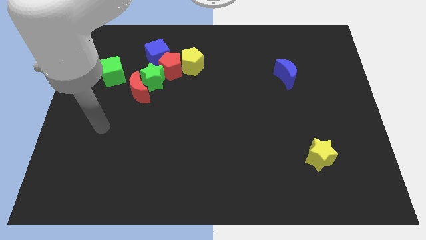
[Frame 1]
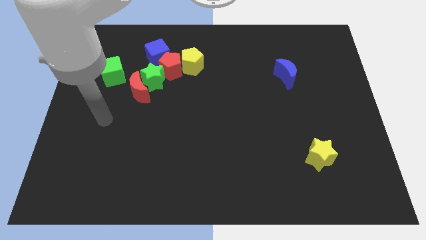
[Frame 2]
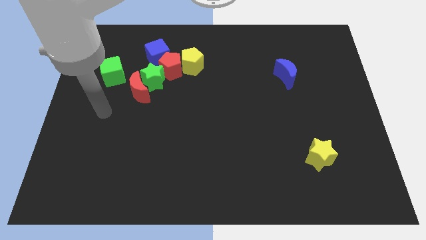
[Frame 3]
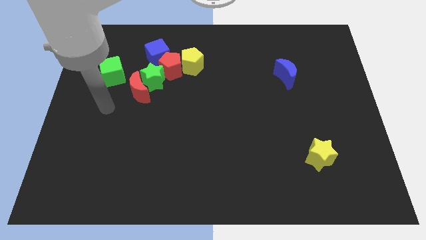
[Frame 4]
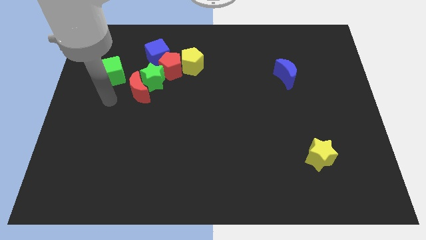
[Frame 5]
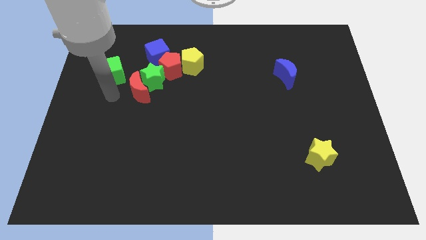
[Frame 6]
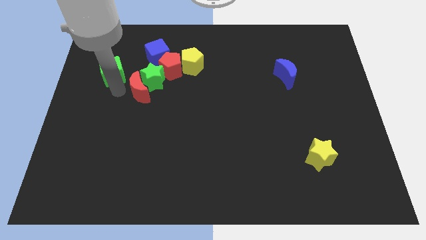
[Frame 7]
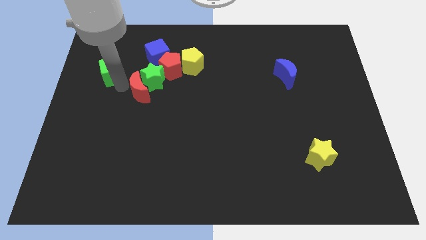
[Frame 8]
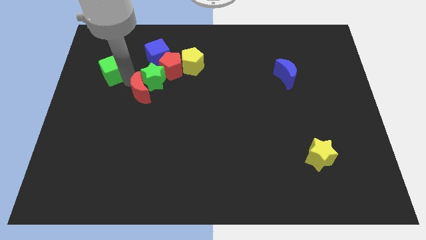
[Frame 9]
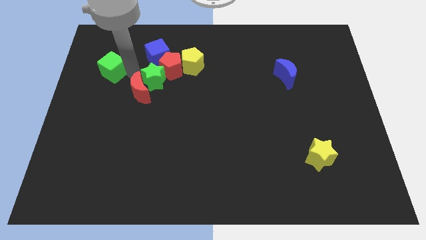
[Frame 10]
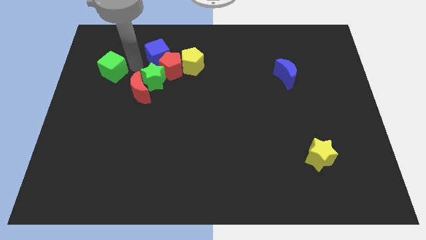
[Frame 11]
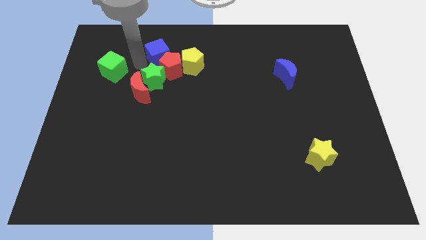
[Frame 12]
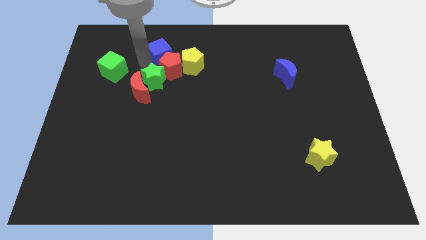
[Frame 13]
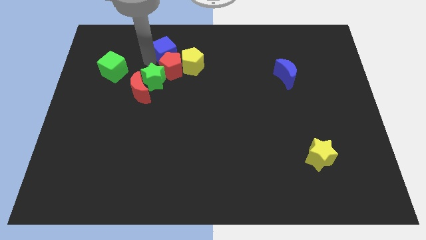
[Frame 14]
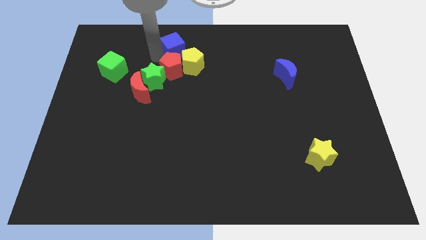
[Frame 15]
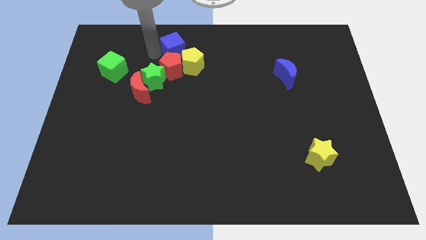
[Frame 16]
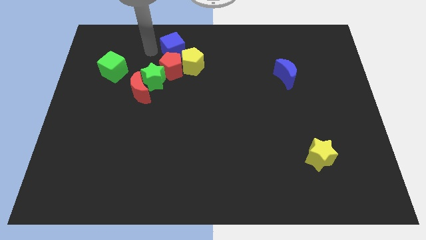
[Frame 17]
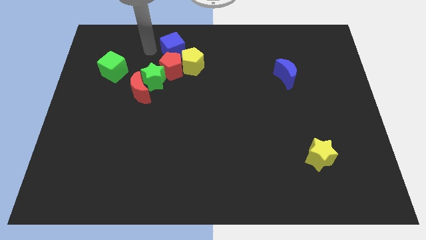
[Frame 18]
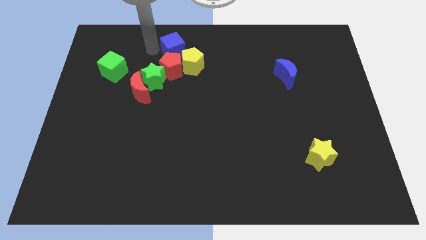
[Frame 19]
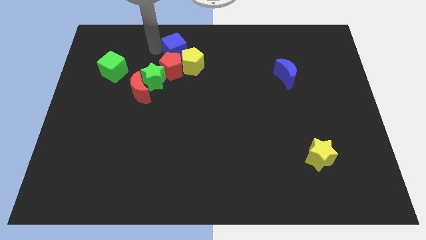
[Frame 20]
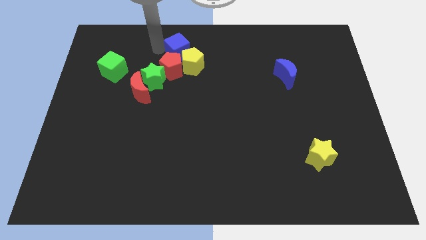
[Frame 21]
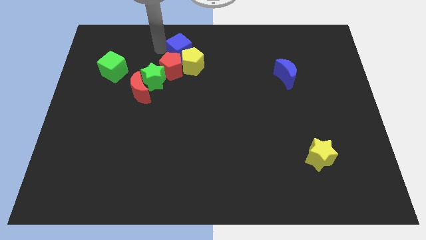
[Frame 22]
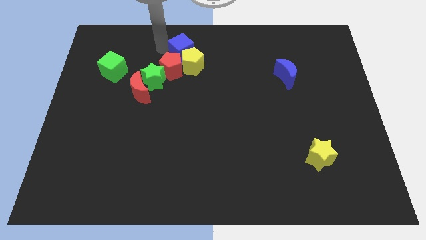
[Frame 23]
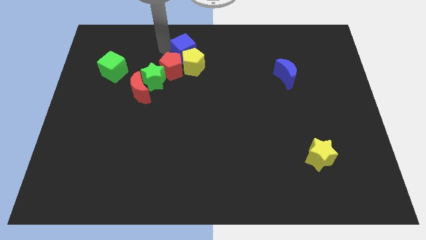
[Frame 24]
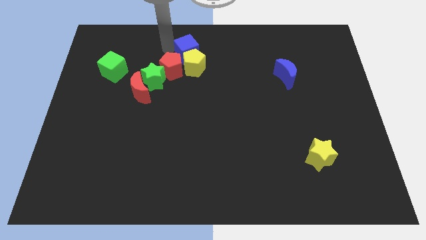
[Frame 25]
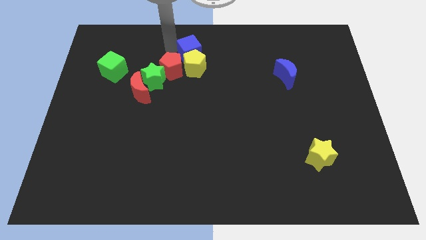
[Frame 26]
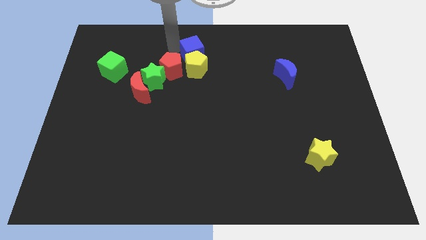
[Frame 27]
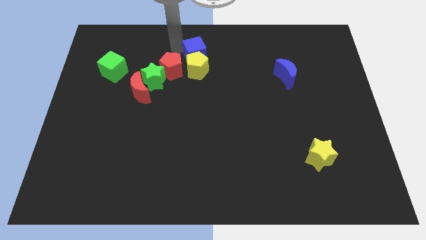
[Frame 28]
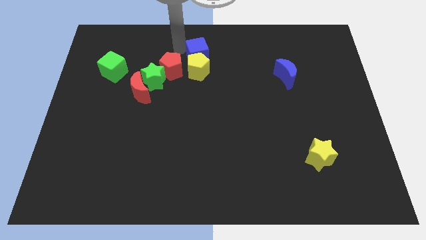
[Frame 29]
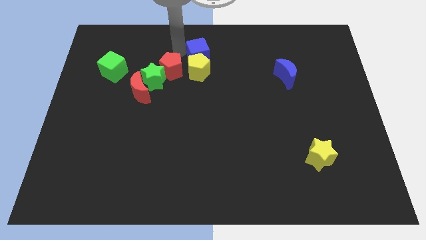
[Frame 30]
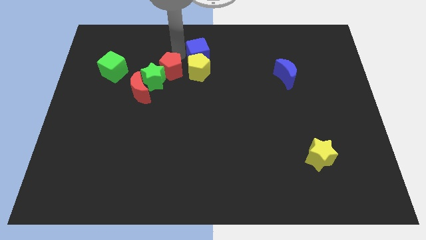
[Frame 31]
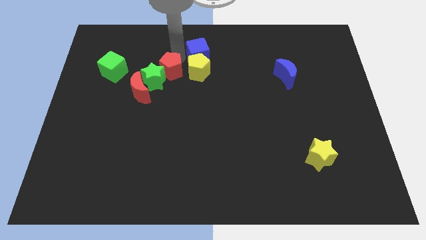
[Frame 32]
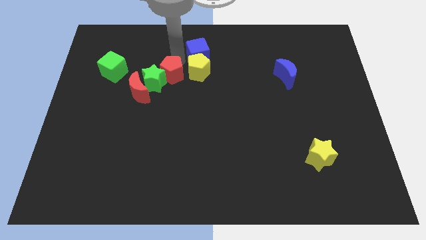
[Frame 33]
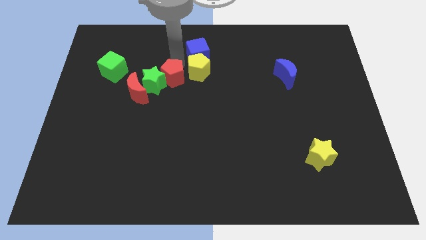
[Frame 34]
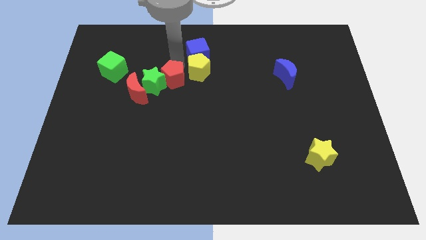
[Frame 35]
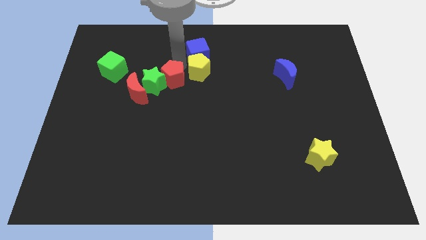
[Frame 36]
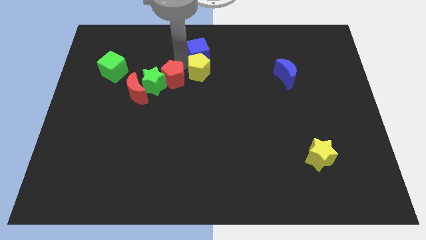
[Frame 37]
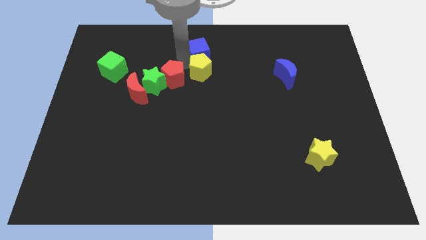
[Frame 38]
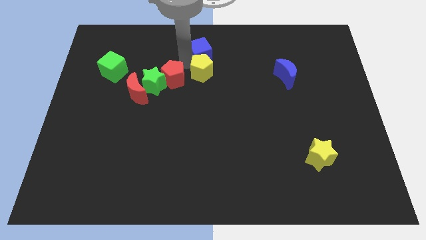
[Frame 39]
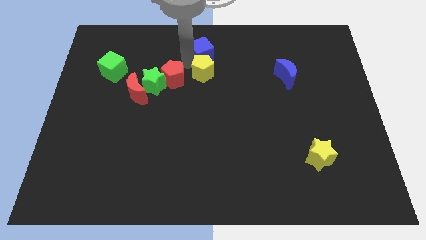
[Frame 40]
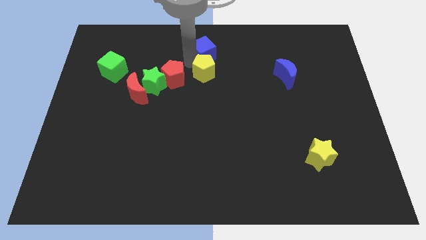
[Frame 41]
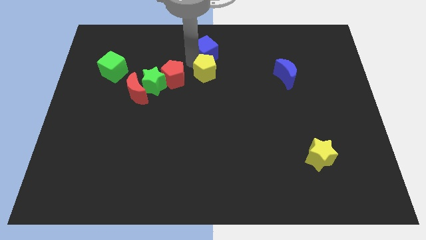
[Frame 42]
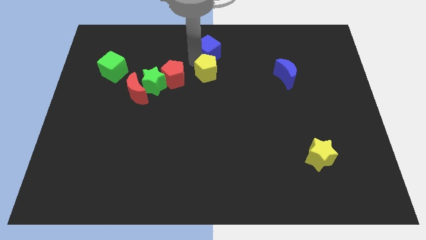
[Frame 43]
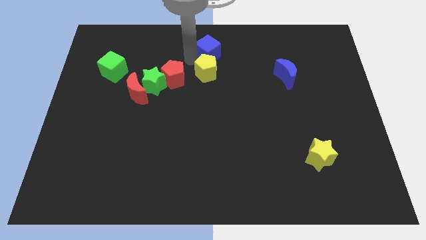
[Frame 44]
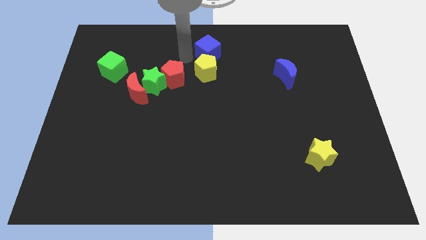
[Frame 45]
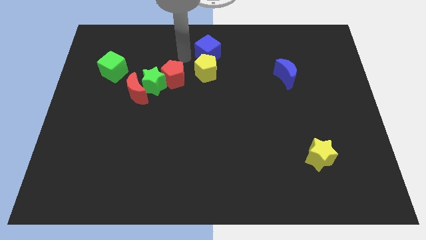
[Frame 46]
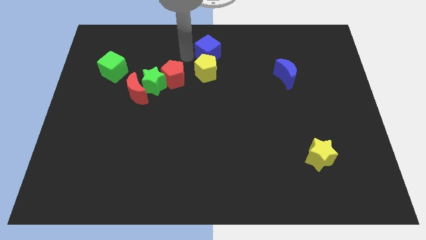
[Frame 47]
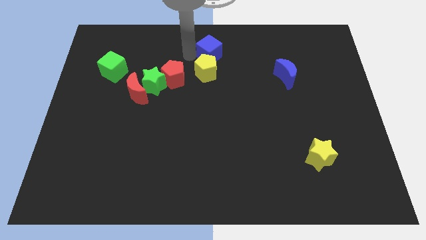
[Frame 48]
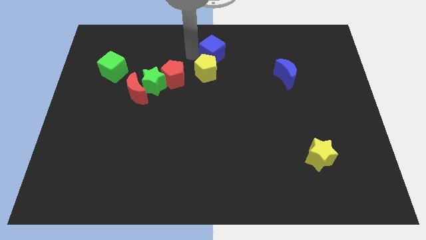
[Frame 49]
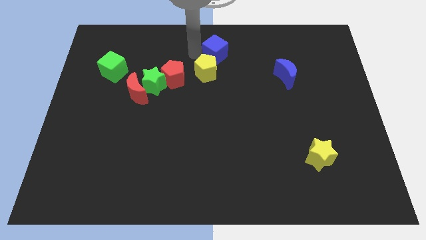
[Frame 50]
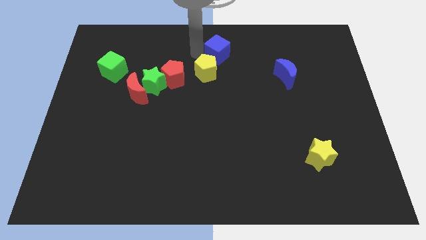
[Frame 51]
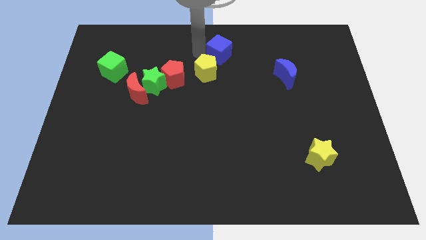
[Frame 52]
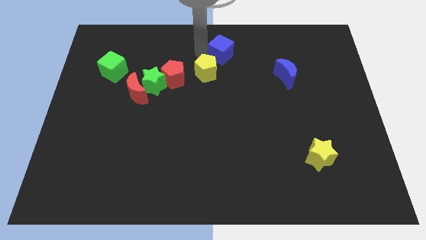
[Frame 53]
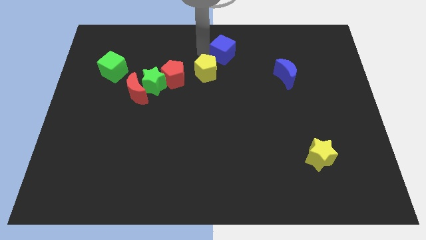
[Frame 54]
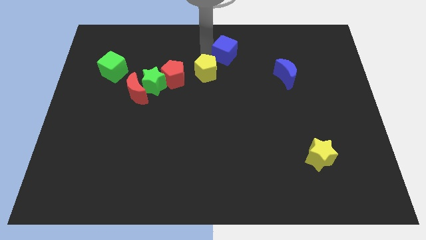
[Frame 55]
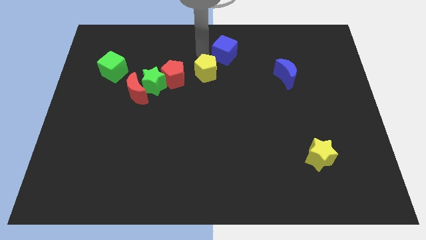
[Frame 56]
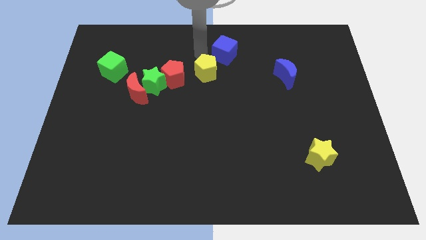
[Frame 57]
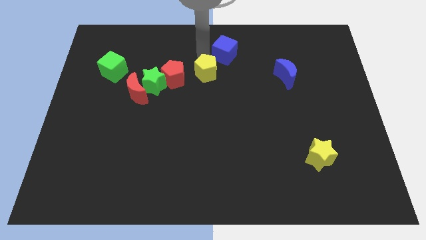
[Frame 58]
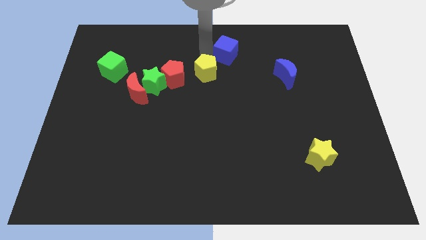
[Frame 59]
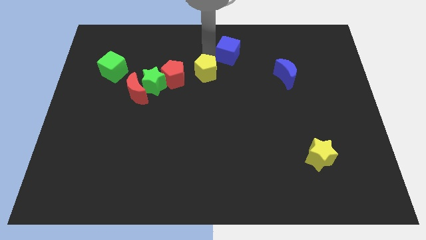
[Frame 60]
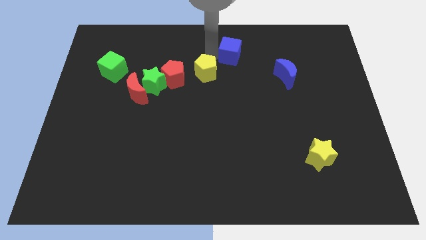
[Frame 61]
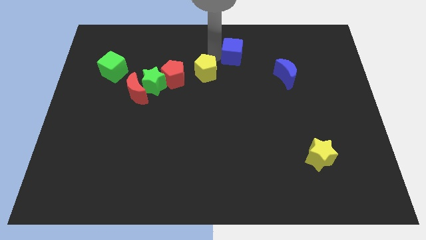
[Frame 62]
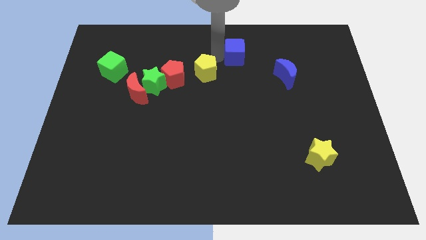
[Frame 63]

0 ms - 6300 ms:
slide the blue cube to the right

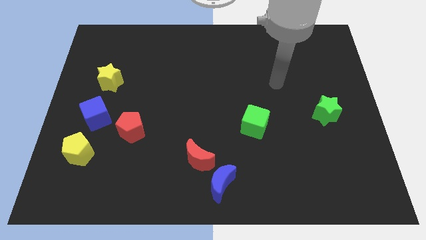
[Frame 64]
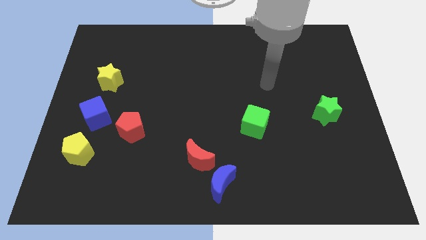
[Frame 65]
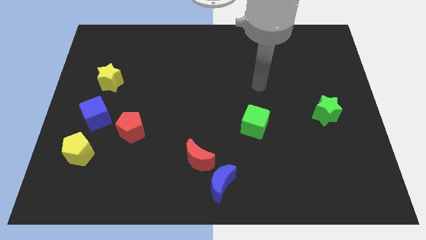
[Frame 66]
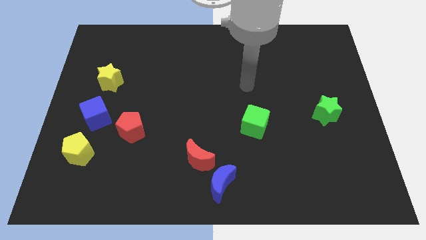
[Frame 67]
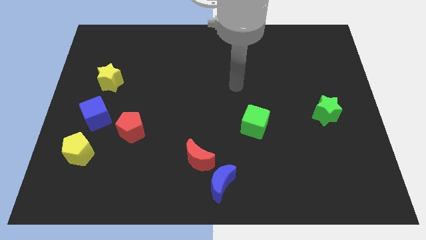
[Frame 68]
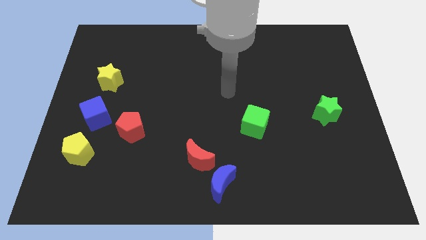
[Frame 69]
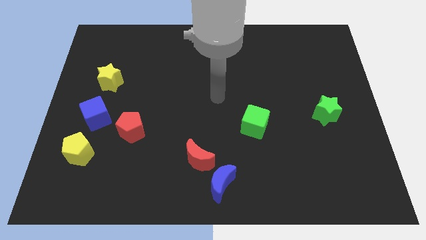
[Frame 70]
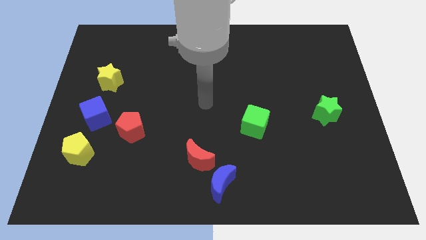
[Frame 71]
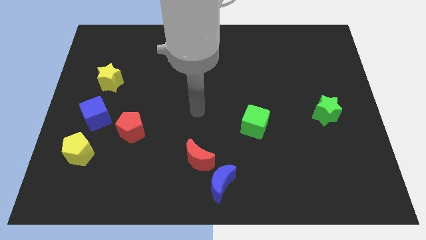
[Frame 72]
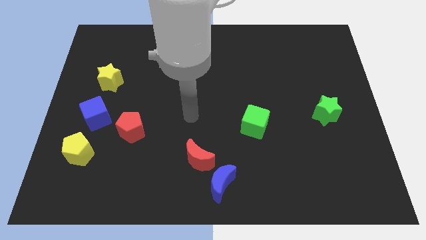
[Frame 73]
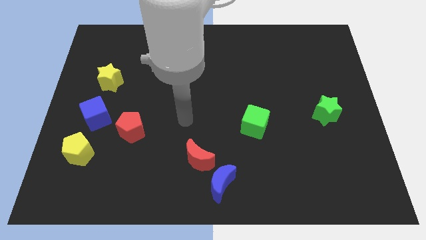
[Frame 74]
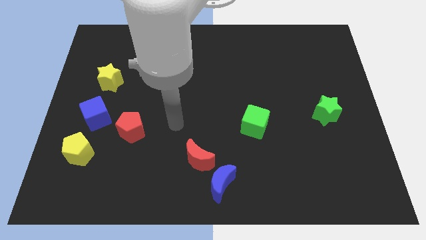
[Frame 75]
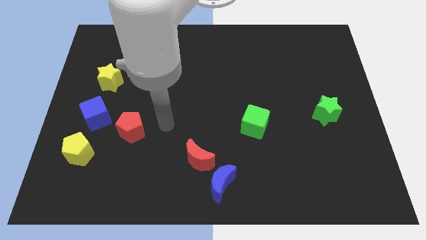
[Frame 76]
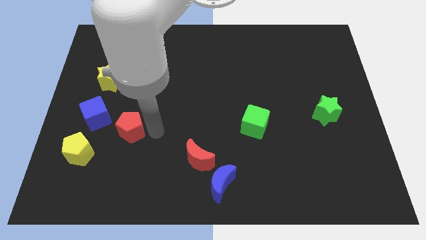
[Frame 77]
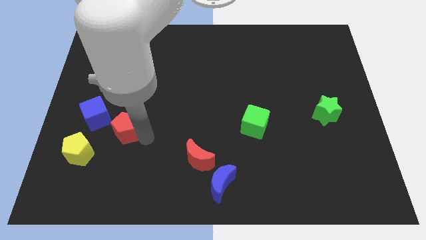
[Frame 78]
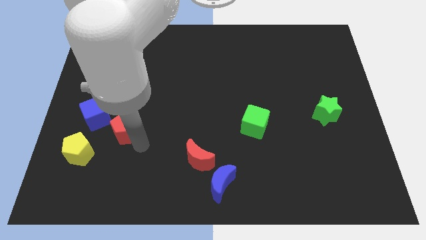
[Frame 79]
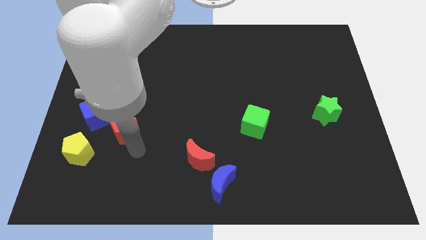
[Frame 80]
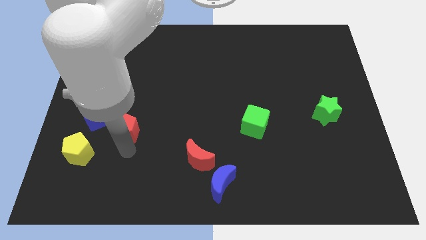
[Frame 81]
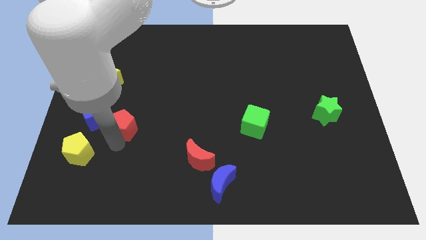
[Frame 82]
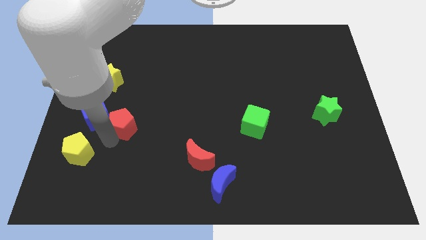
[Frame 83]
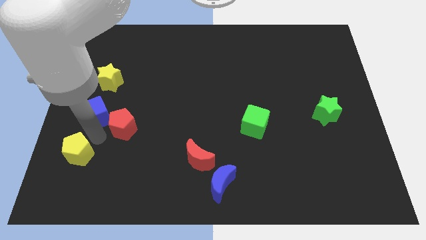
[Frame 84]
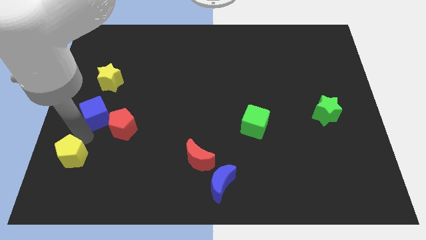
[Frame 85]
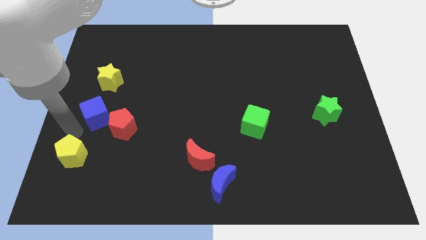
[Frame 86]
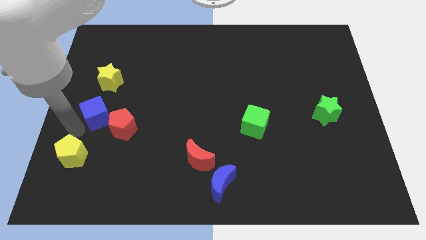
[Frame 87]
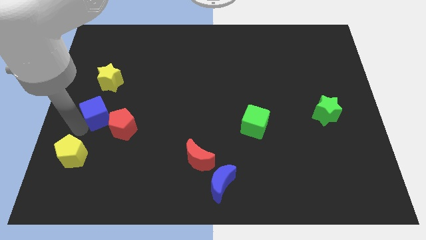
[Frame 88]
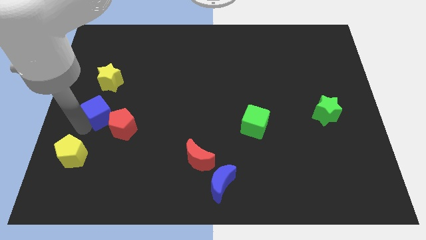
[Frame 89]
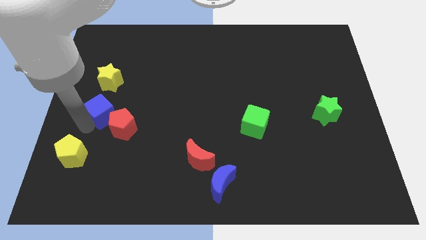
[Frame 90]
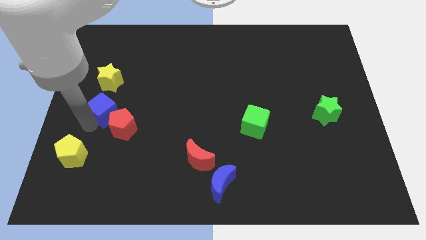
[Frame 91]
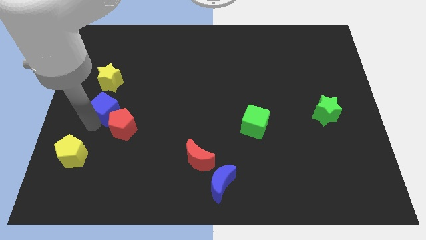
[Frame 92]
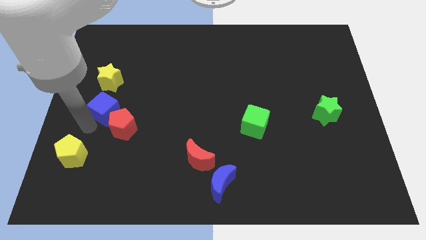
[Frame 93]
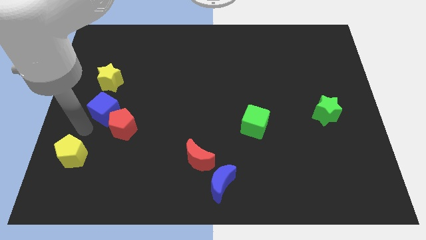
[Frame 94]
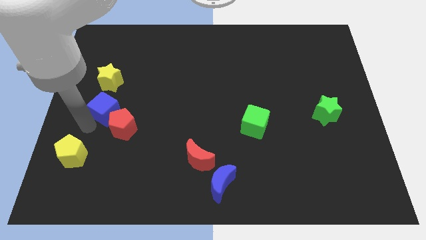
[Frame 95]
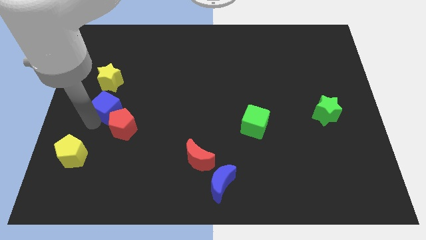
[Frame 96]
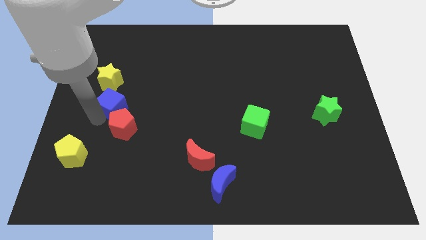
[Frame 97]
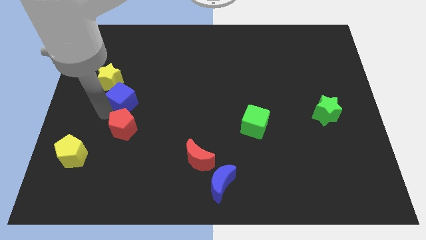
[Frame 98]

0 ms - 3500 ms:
slightly push the blue cube upwards and then right
